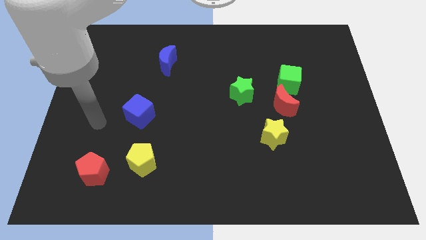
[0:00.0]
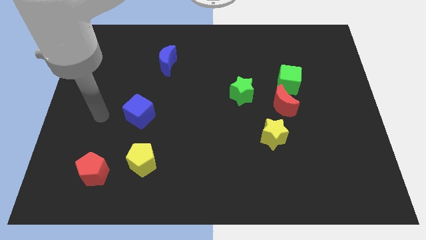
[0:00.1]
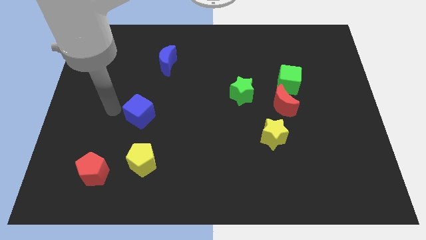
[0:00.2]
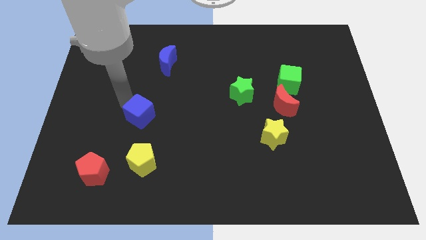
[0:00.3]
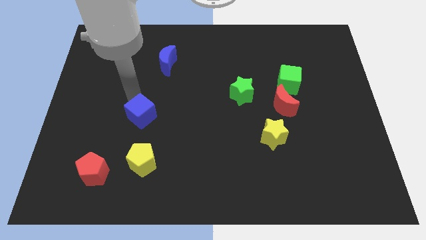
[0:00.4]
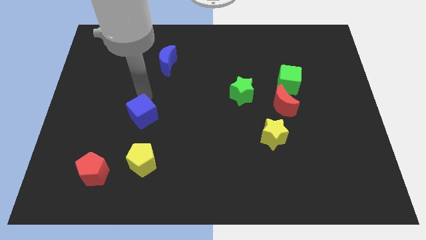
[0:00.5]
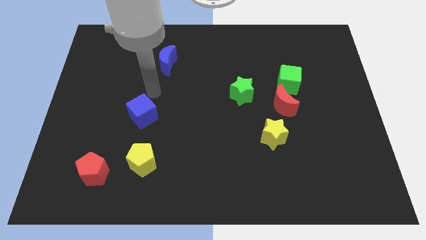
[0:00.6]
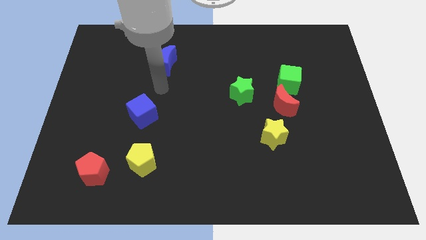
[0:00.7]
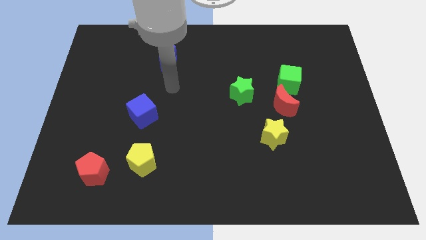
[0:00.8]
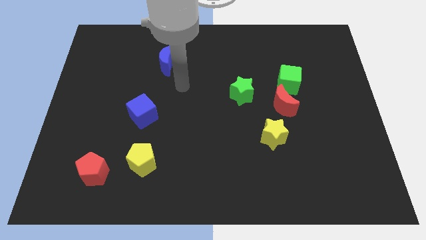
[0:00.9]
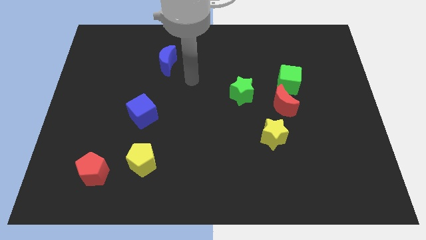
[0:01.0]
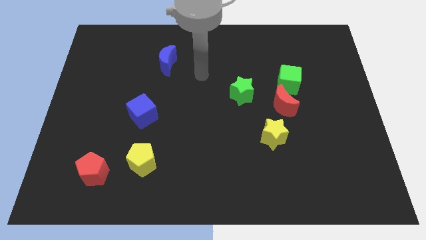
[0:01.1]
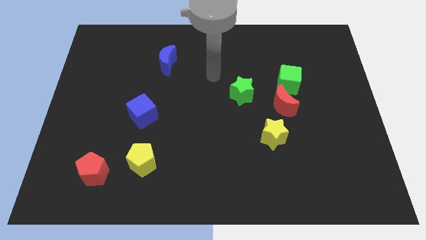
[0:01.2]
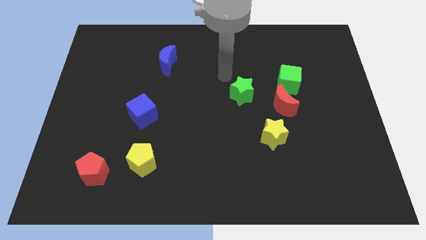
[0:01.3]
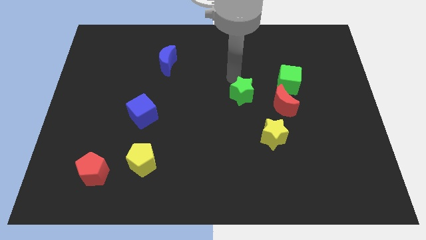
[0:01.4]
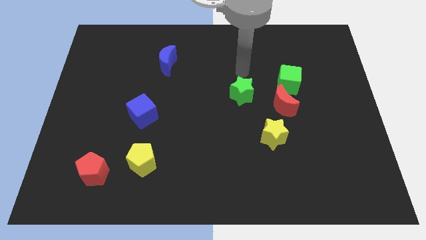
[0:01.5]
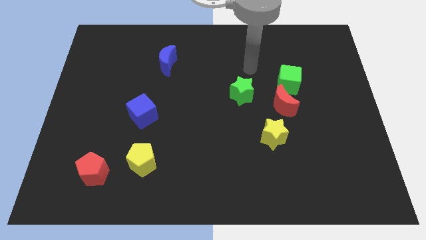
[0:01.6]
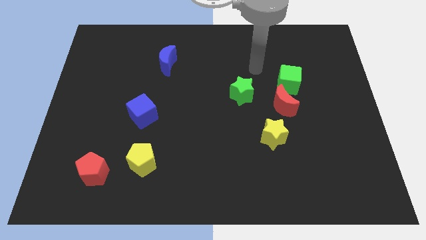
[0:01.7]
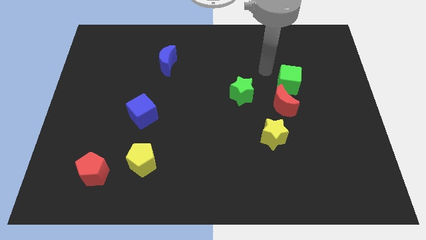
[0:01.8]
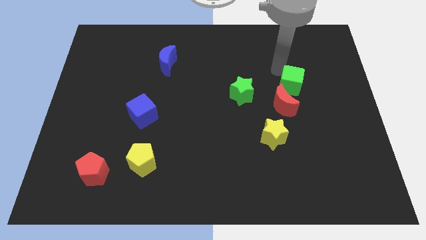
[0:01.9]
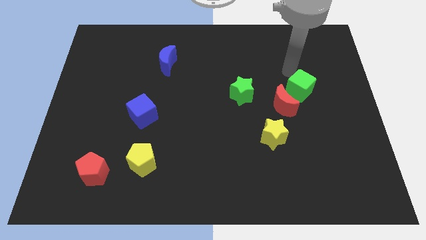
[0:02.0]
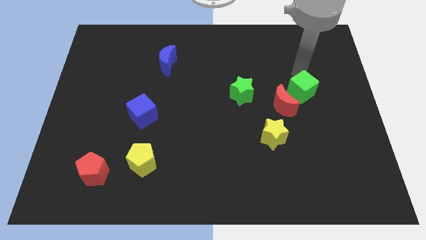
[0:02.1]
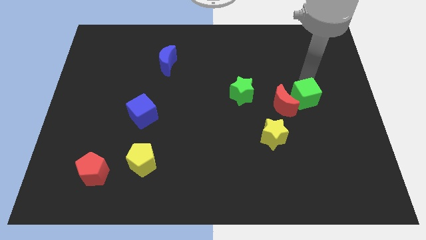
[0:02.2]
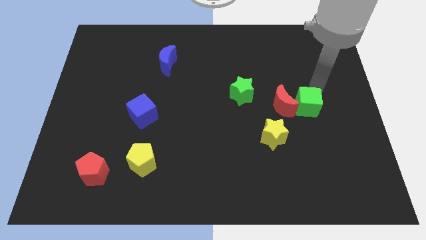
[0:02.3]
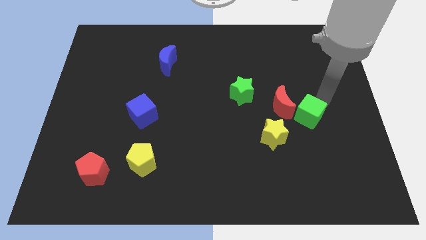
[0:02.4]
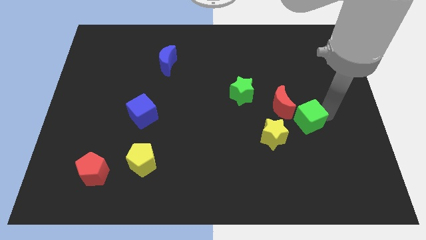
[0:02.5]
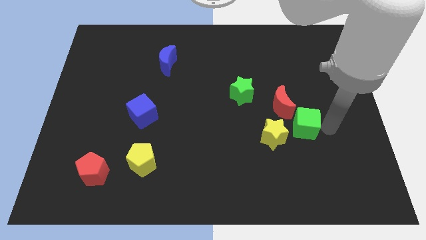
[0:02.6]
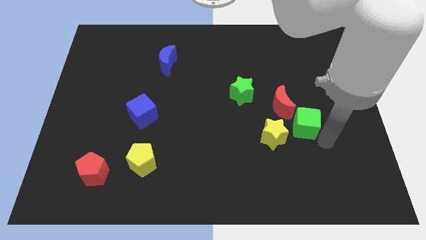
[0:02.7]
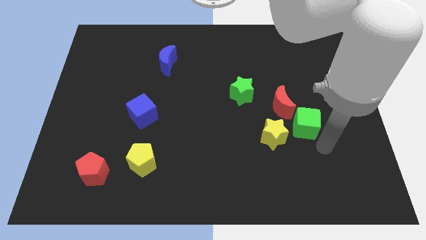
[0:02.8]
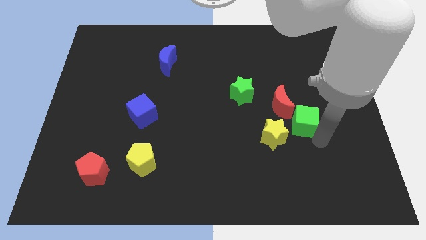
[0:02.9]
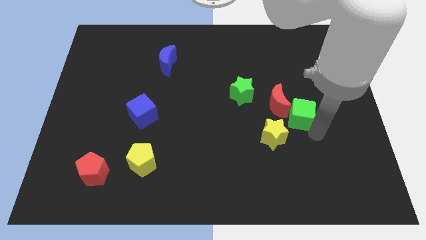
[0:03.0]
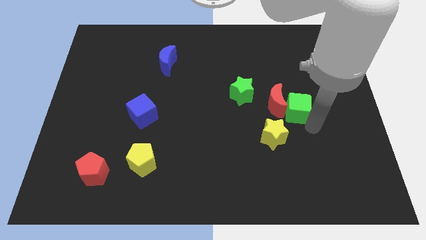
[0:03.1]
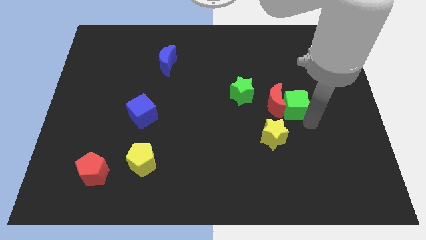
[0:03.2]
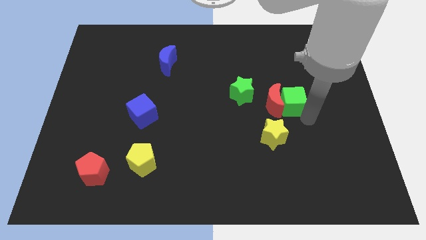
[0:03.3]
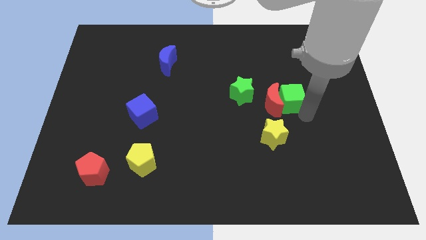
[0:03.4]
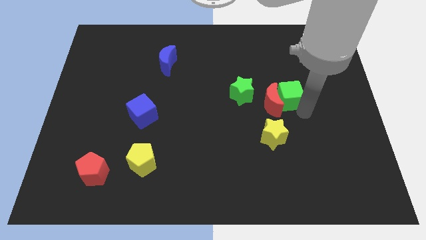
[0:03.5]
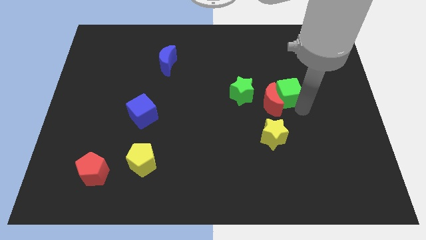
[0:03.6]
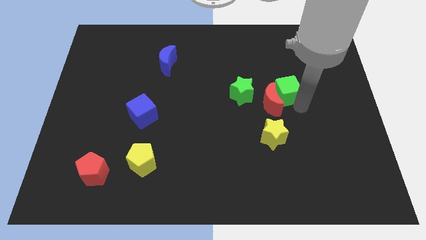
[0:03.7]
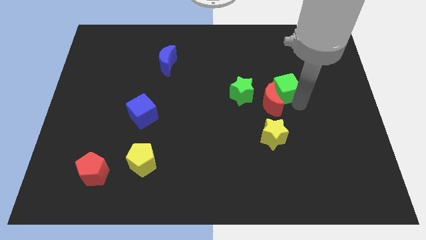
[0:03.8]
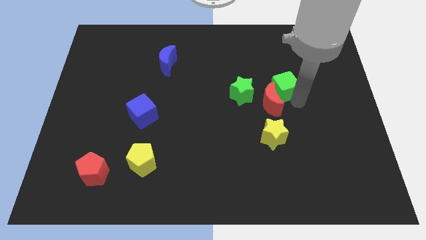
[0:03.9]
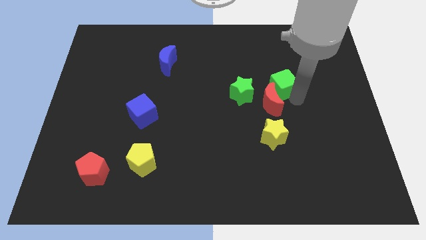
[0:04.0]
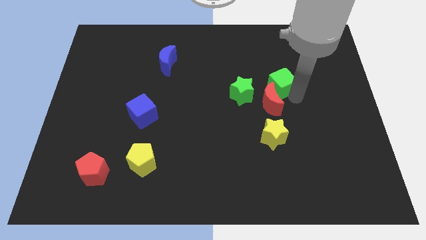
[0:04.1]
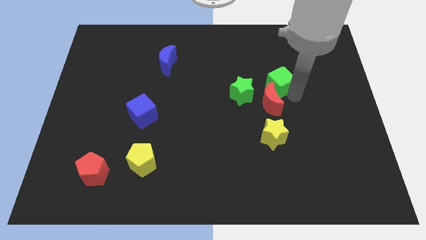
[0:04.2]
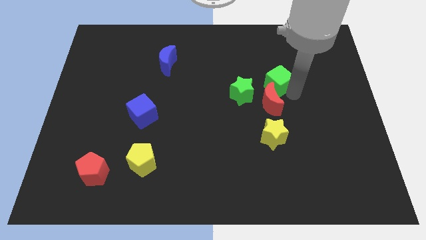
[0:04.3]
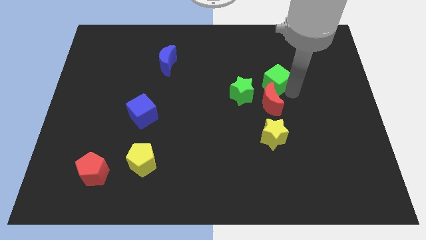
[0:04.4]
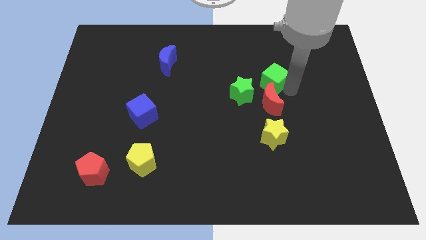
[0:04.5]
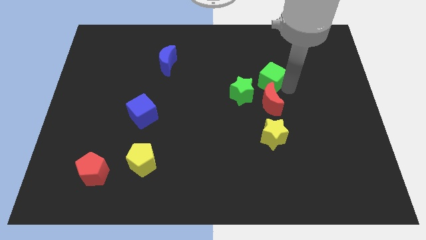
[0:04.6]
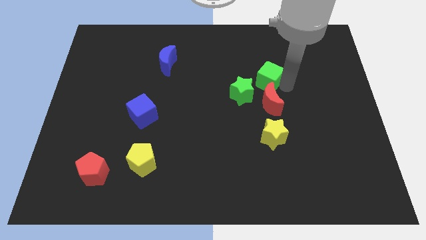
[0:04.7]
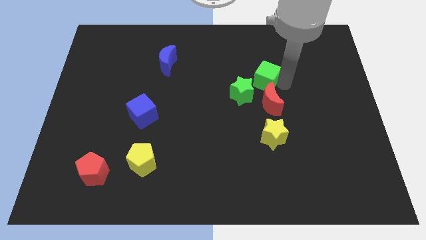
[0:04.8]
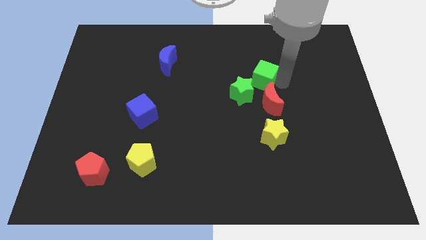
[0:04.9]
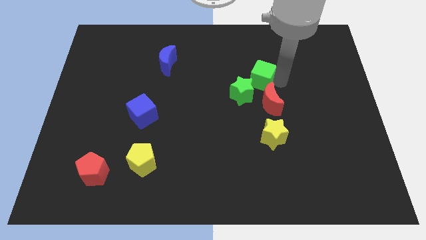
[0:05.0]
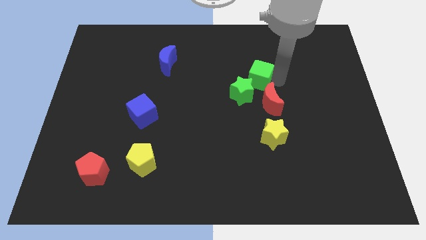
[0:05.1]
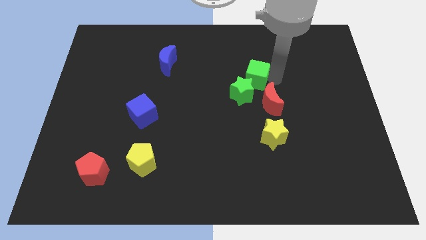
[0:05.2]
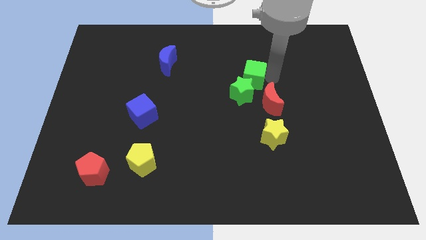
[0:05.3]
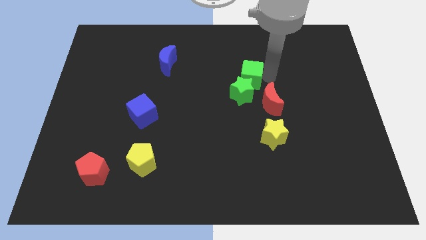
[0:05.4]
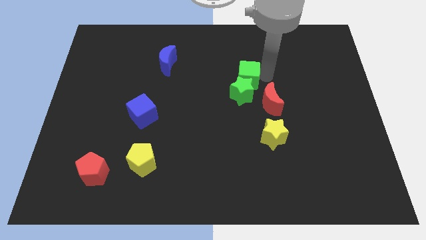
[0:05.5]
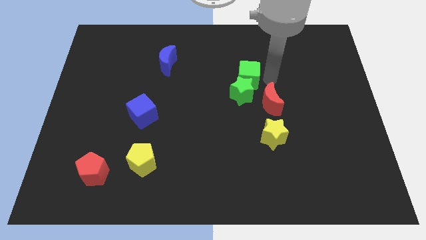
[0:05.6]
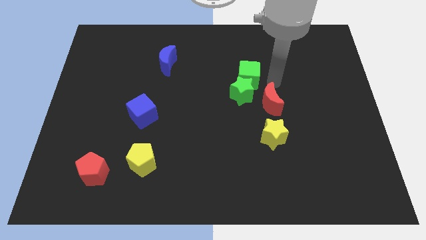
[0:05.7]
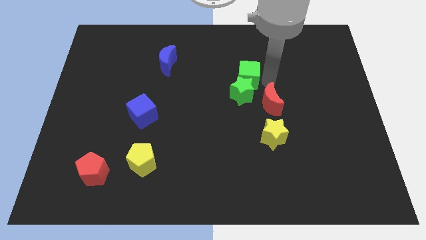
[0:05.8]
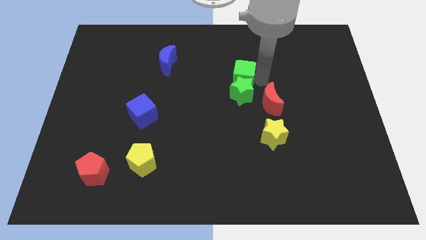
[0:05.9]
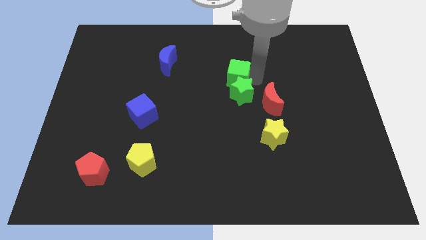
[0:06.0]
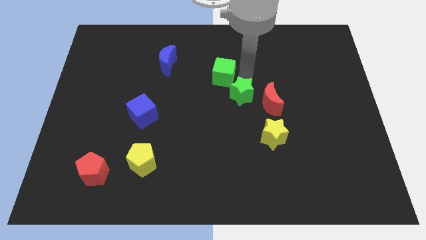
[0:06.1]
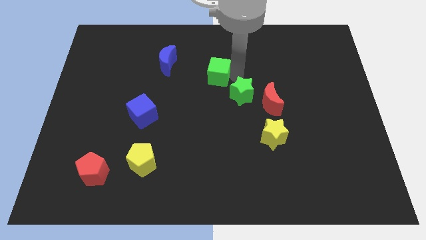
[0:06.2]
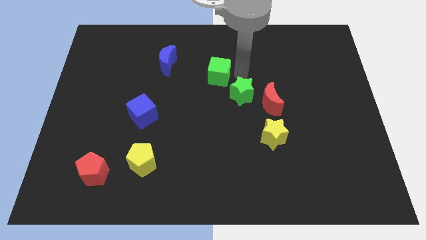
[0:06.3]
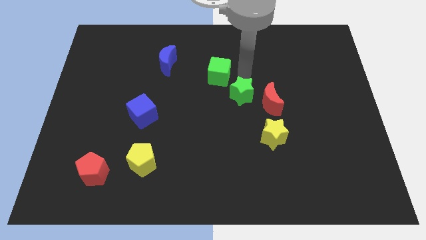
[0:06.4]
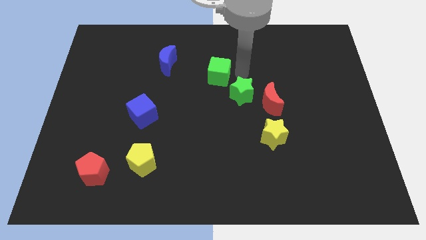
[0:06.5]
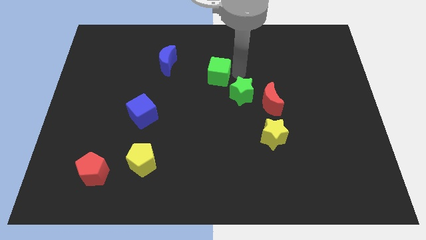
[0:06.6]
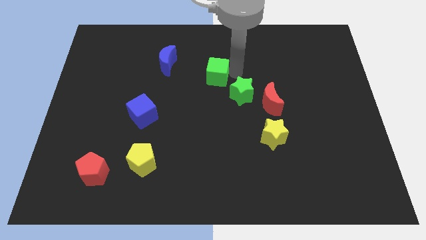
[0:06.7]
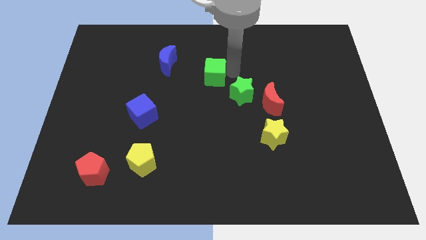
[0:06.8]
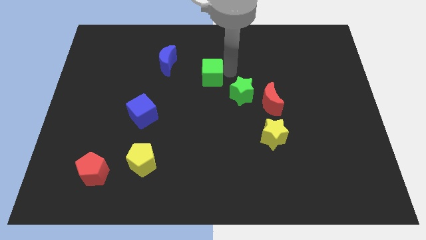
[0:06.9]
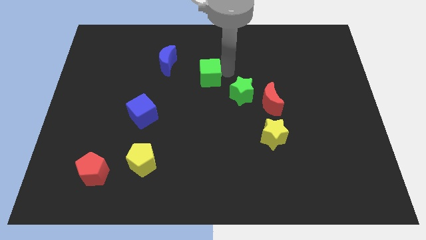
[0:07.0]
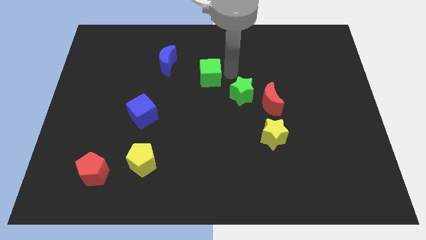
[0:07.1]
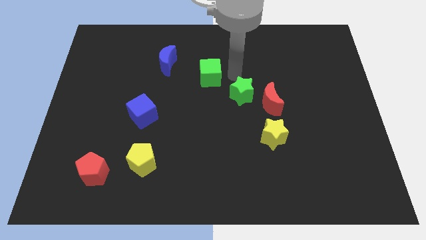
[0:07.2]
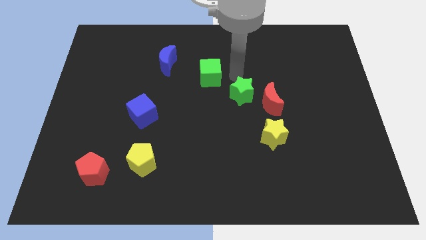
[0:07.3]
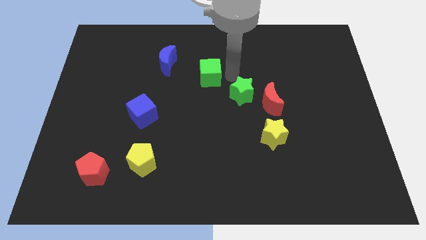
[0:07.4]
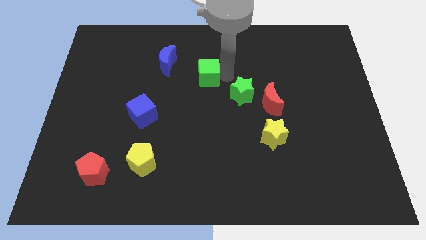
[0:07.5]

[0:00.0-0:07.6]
move the green cube left

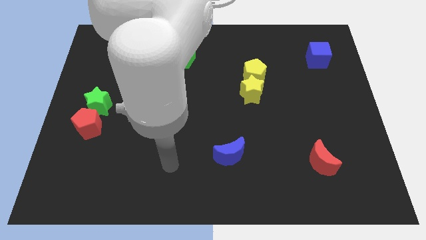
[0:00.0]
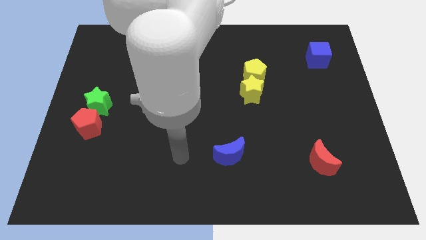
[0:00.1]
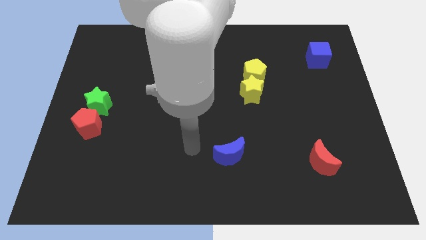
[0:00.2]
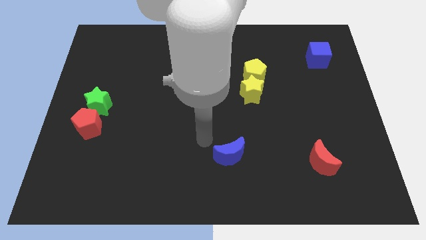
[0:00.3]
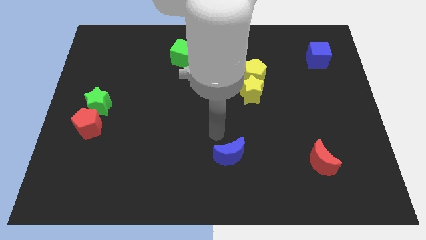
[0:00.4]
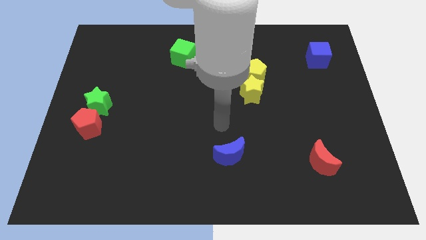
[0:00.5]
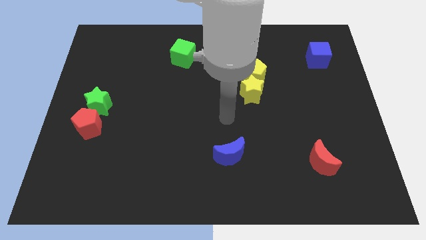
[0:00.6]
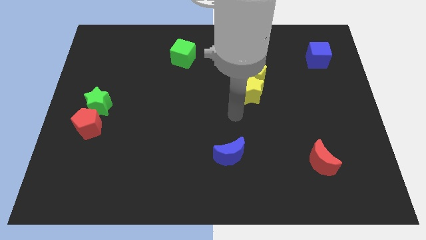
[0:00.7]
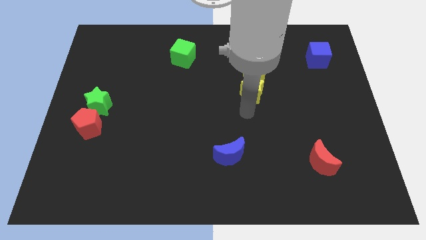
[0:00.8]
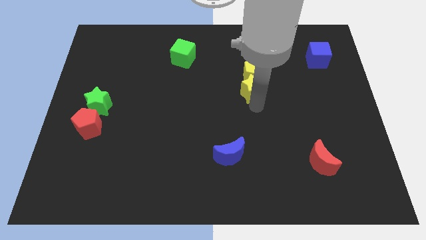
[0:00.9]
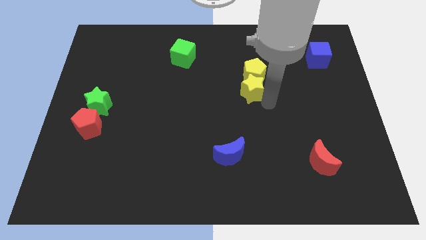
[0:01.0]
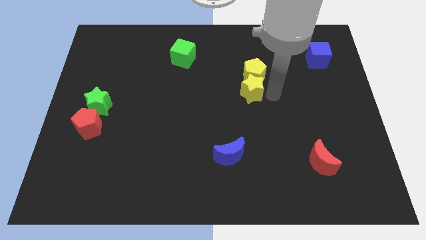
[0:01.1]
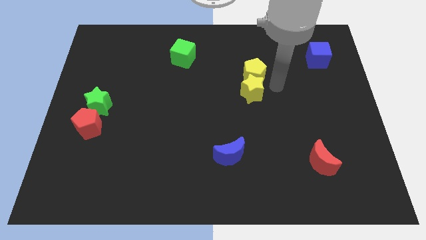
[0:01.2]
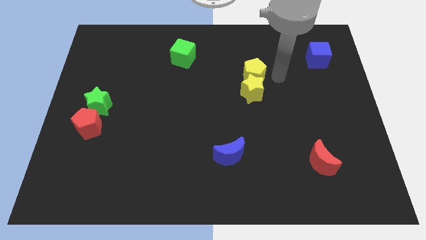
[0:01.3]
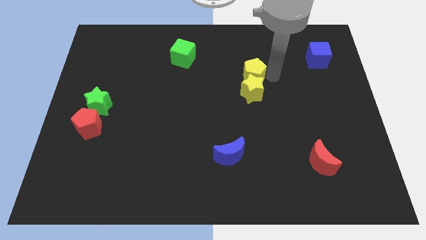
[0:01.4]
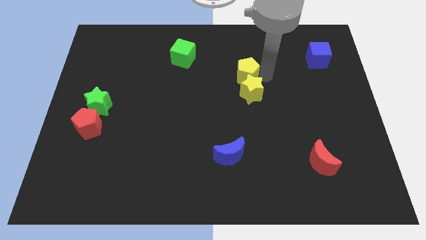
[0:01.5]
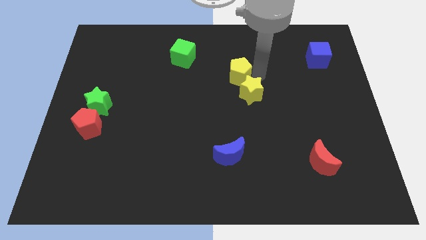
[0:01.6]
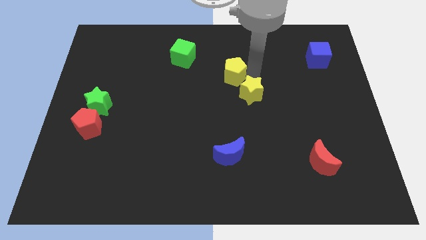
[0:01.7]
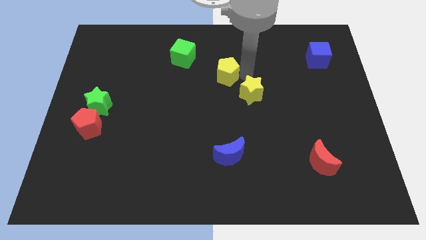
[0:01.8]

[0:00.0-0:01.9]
slide the yellow pentagon a little bit to the left
